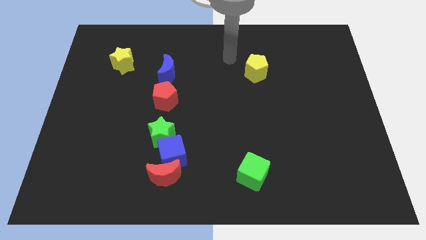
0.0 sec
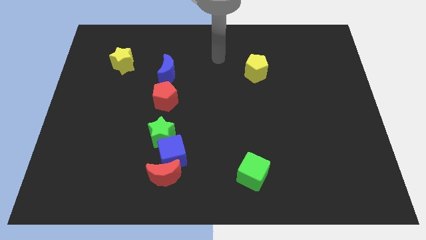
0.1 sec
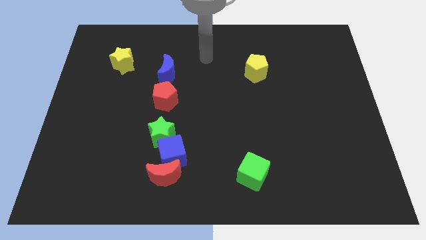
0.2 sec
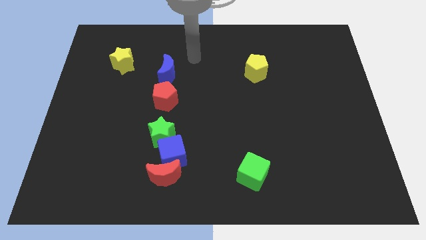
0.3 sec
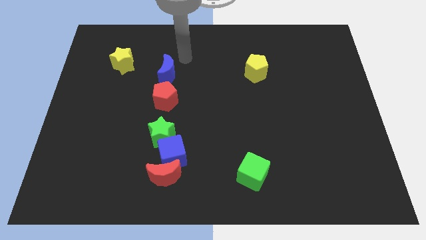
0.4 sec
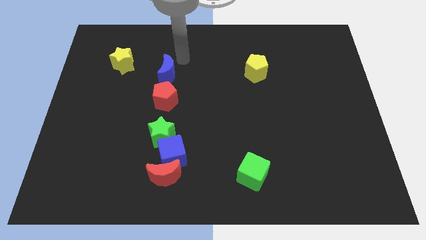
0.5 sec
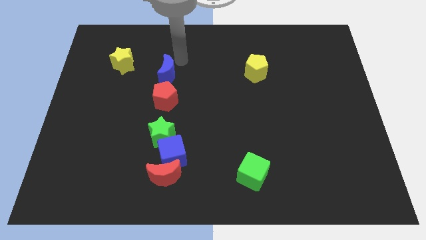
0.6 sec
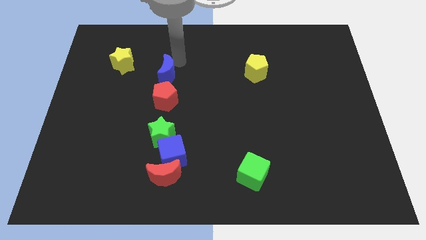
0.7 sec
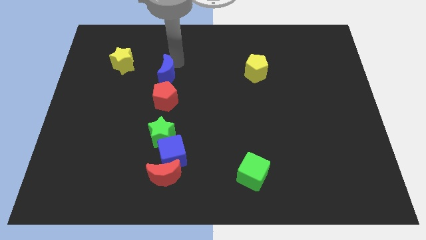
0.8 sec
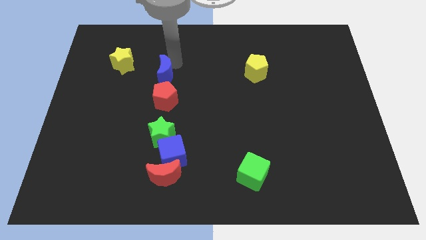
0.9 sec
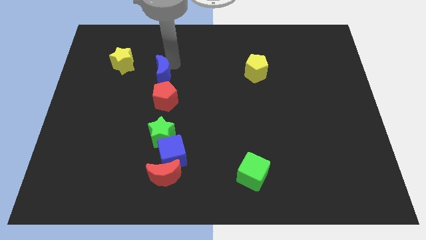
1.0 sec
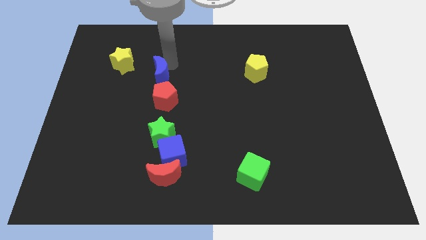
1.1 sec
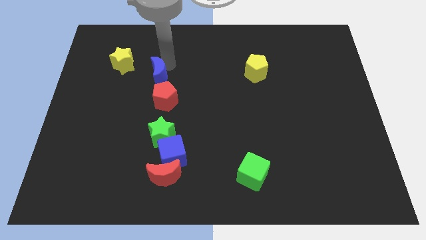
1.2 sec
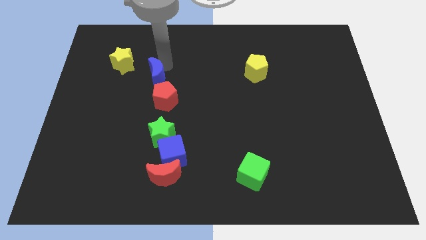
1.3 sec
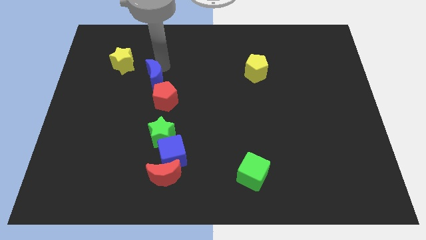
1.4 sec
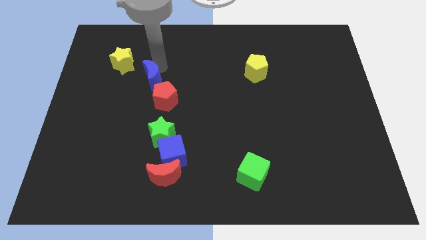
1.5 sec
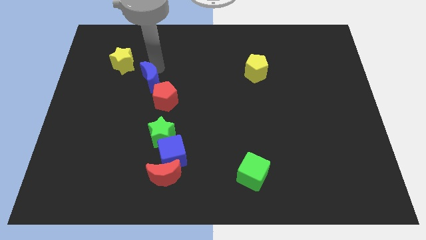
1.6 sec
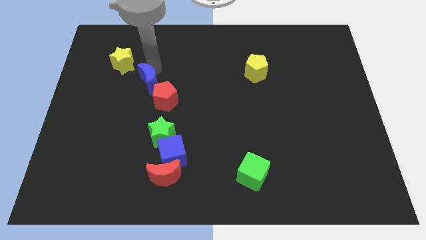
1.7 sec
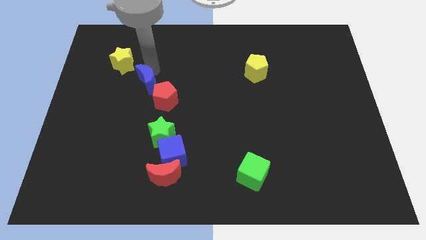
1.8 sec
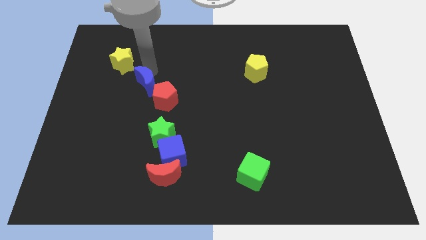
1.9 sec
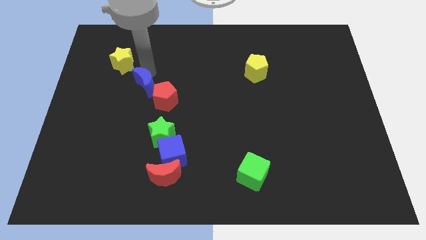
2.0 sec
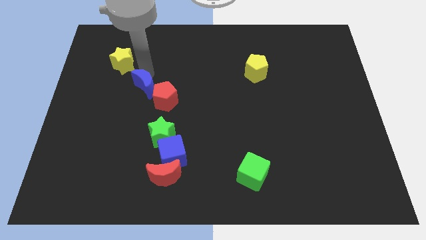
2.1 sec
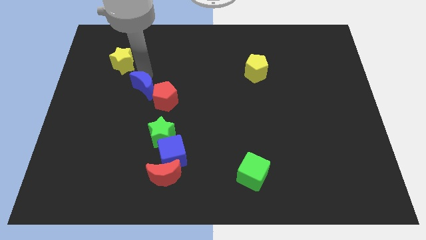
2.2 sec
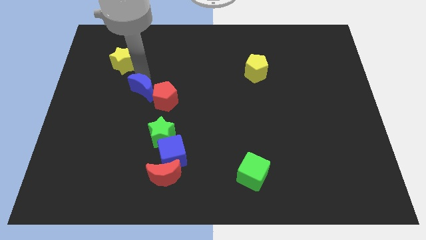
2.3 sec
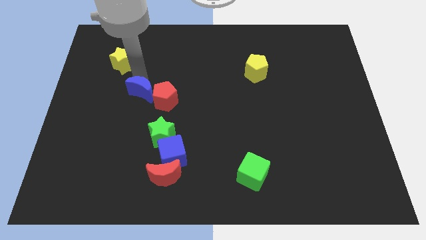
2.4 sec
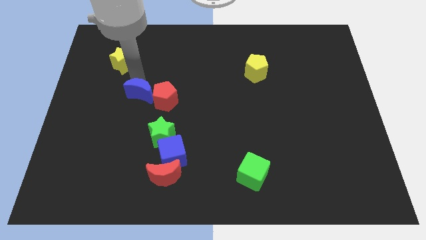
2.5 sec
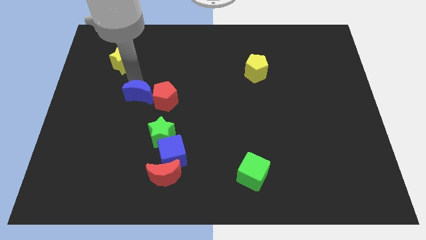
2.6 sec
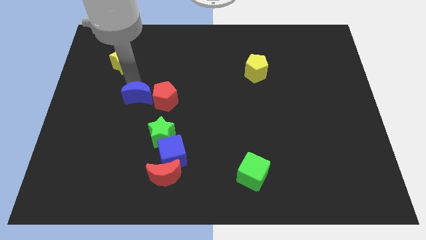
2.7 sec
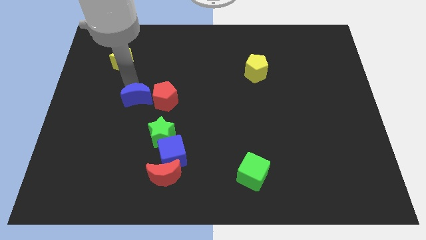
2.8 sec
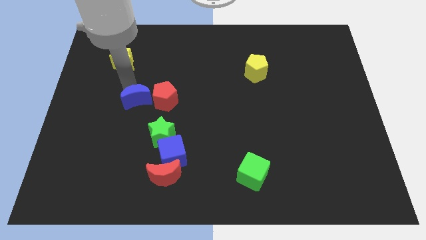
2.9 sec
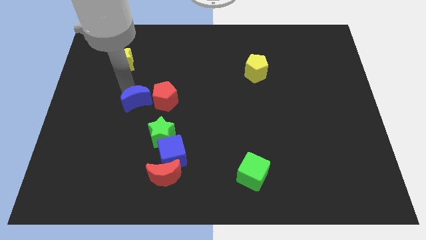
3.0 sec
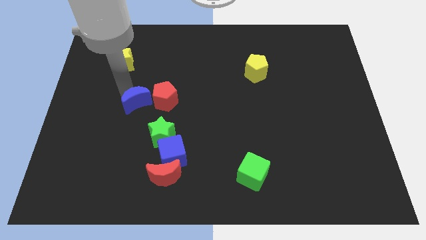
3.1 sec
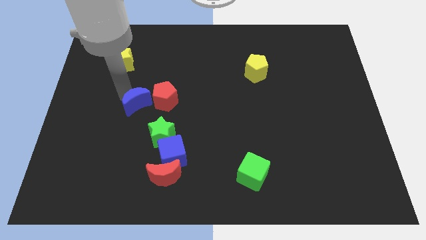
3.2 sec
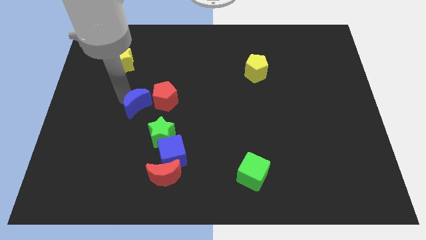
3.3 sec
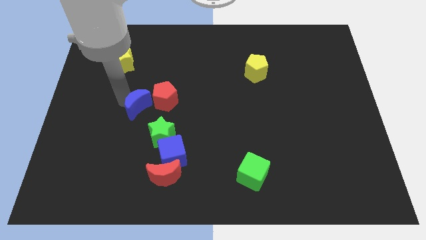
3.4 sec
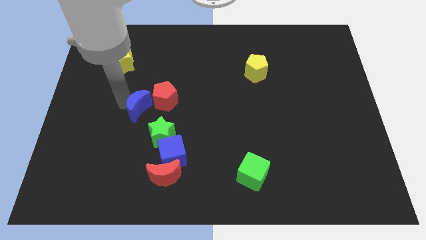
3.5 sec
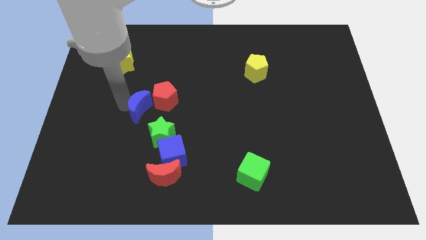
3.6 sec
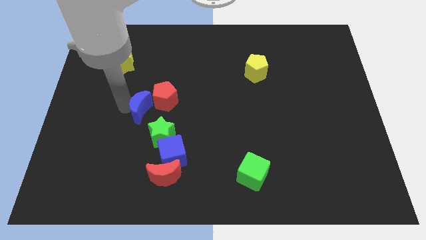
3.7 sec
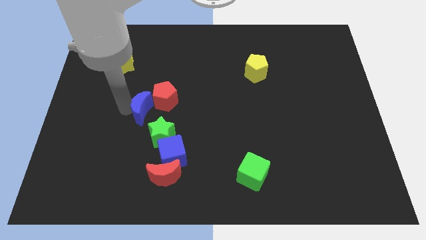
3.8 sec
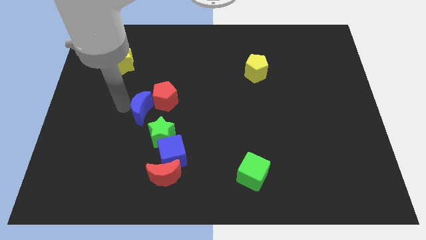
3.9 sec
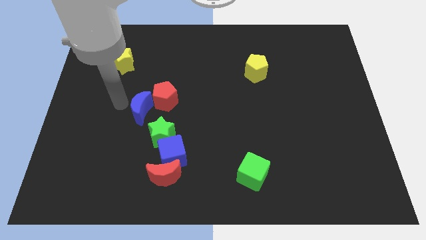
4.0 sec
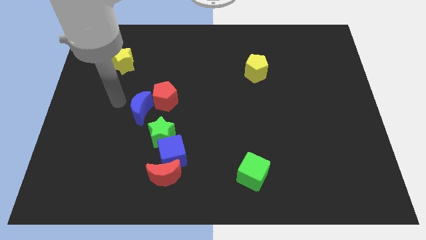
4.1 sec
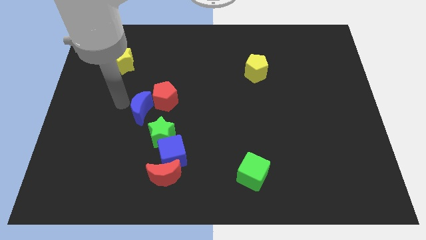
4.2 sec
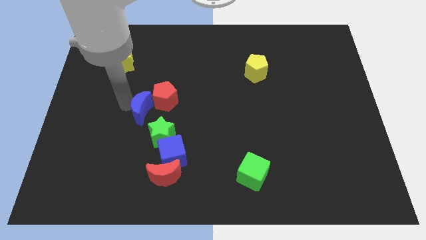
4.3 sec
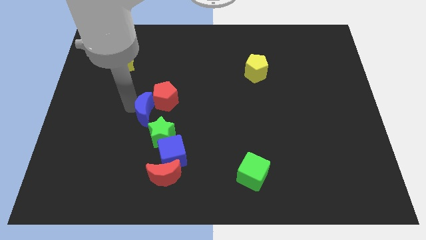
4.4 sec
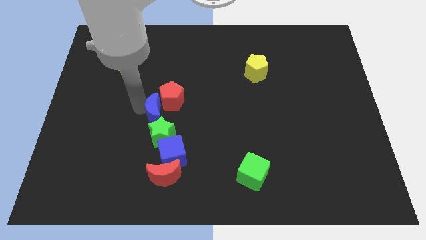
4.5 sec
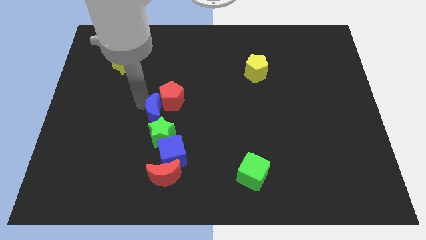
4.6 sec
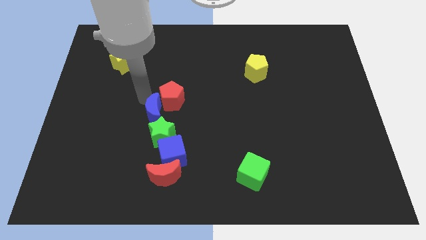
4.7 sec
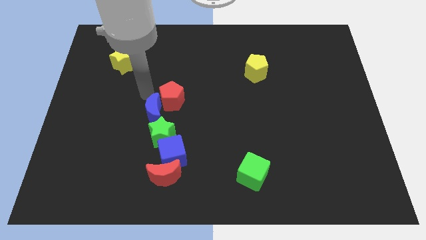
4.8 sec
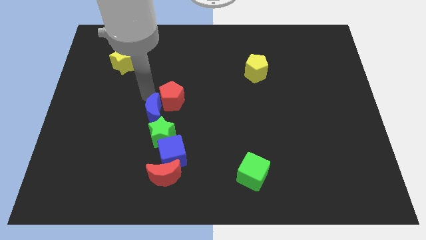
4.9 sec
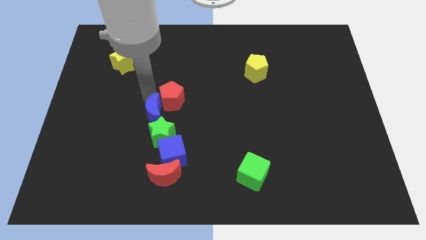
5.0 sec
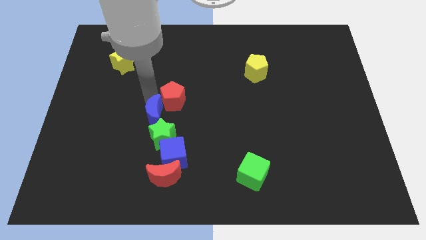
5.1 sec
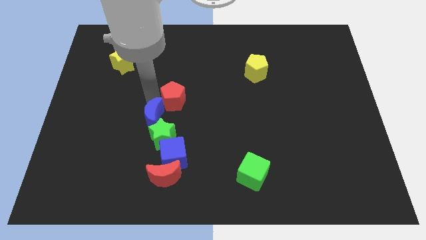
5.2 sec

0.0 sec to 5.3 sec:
move the blue moon to the green star

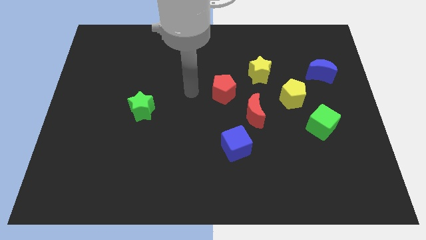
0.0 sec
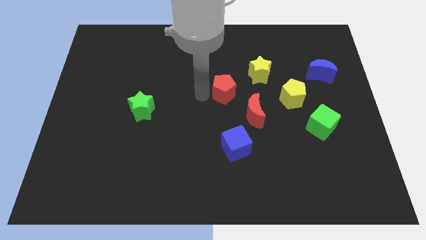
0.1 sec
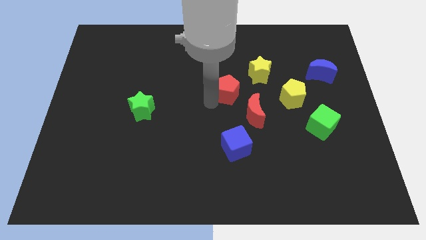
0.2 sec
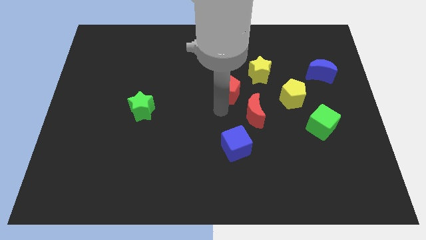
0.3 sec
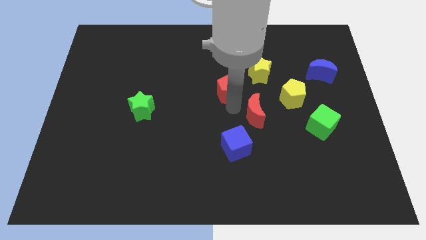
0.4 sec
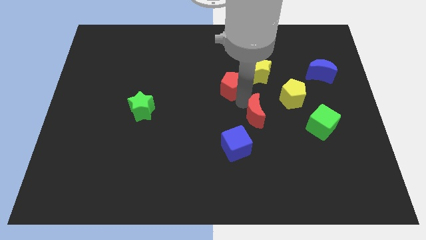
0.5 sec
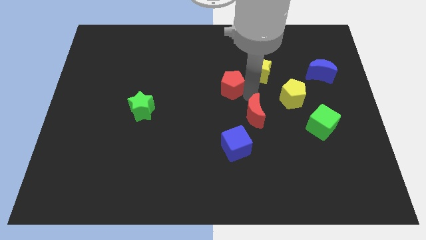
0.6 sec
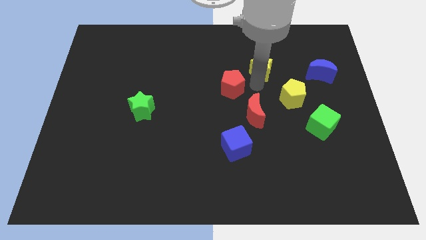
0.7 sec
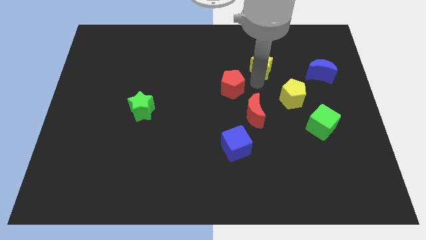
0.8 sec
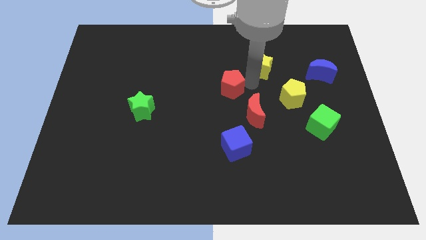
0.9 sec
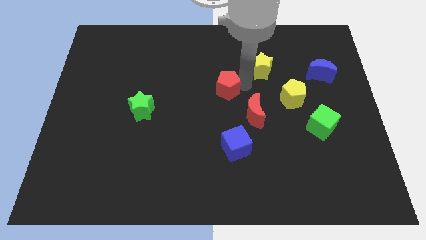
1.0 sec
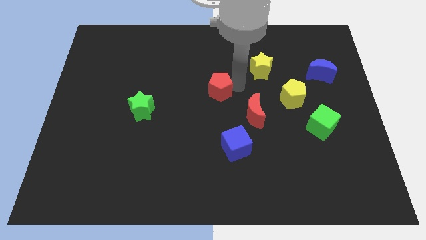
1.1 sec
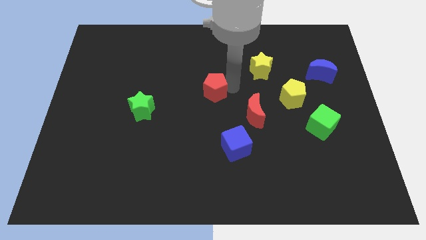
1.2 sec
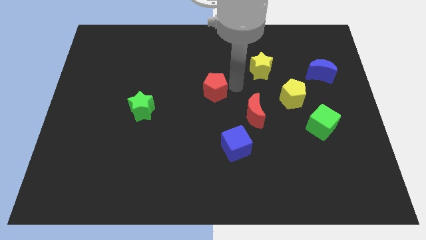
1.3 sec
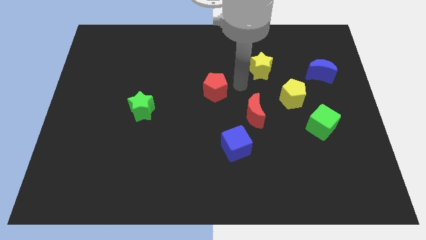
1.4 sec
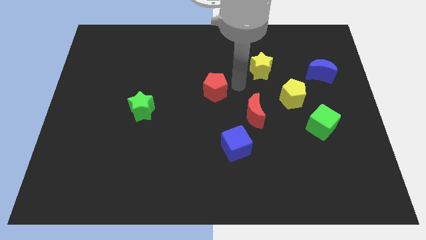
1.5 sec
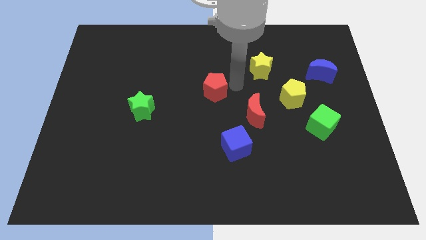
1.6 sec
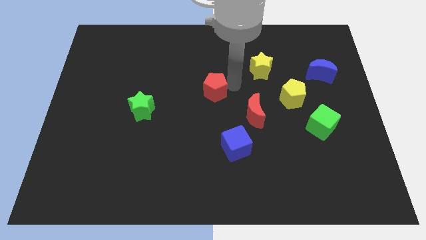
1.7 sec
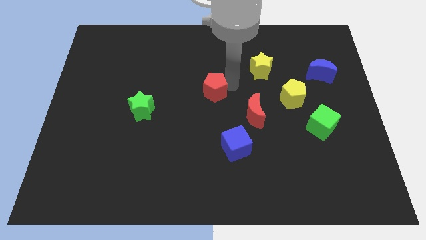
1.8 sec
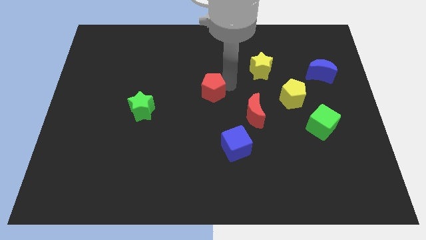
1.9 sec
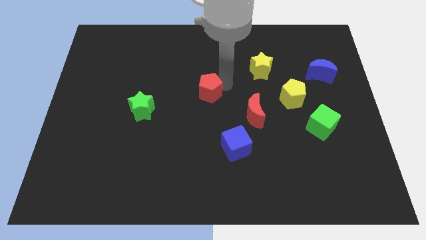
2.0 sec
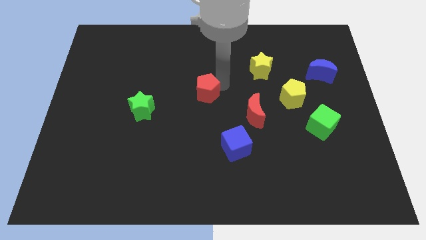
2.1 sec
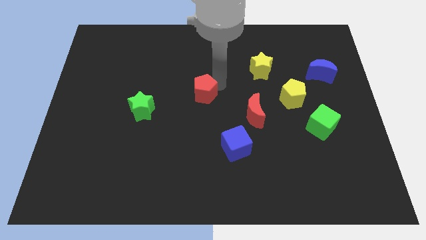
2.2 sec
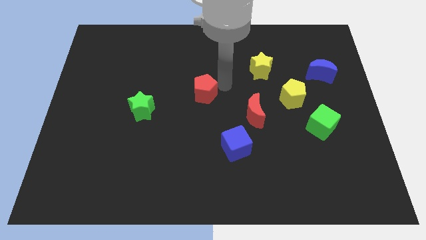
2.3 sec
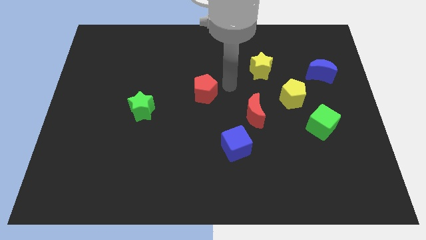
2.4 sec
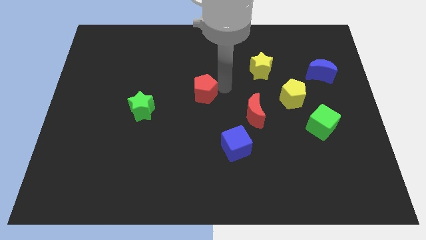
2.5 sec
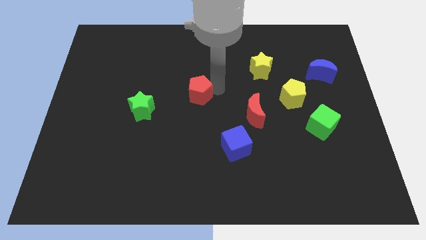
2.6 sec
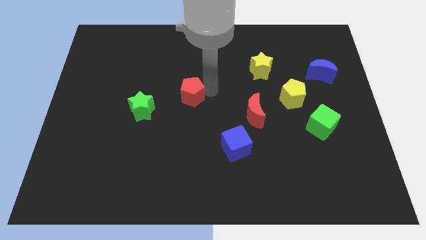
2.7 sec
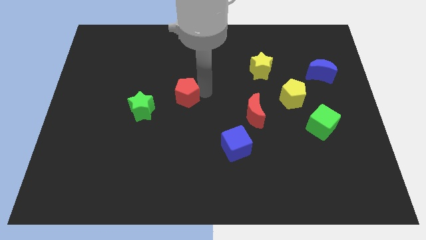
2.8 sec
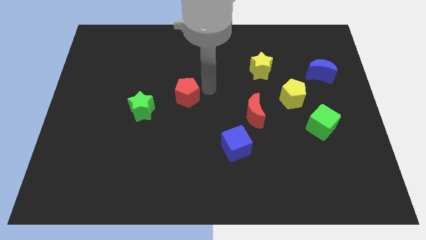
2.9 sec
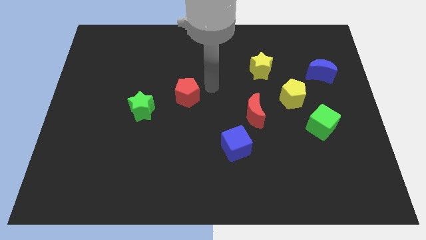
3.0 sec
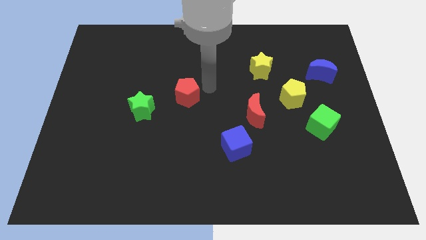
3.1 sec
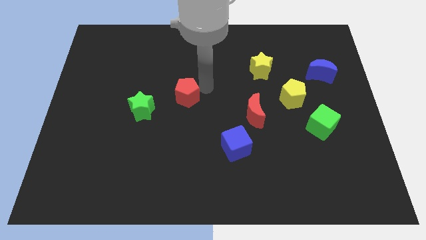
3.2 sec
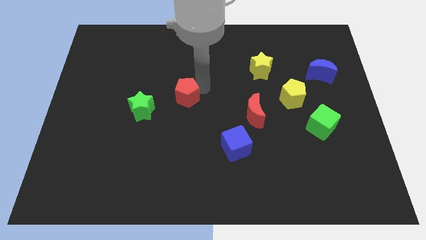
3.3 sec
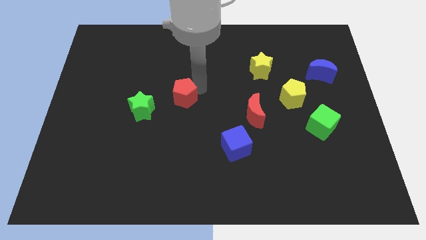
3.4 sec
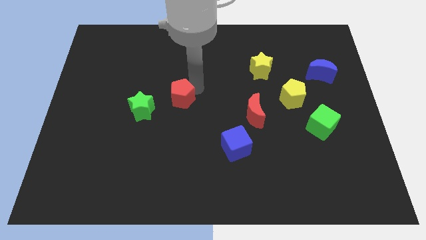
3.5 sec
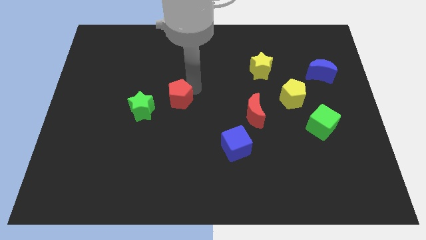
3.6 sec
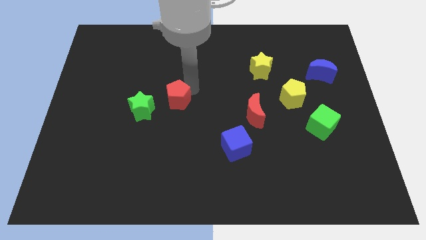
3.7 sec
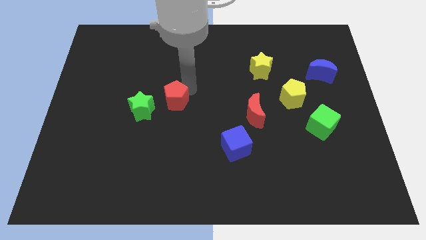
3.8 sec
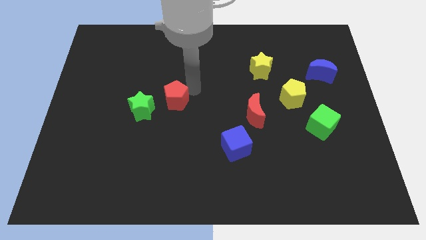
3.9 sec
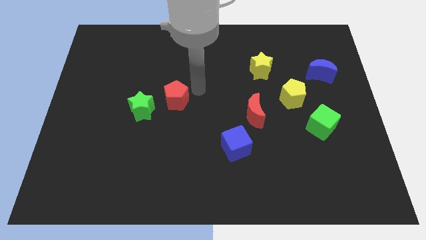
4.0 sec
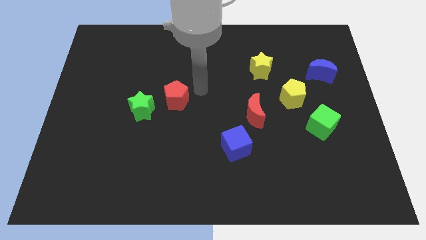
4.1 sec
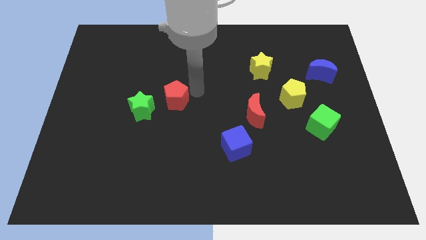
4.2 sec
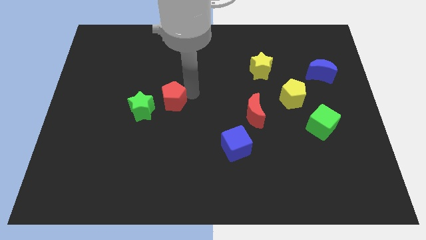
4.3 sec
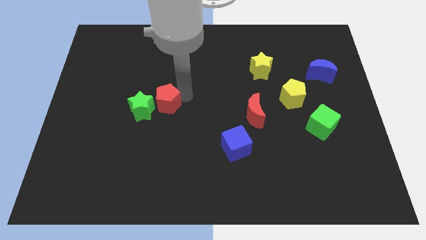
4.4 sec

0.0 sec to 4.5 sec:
put the red pentagon to the green star
